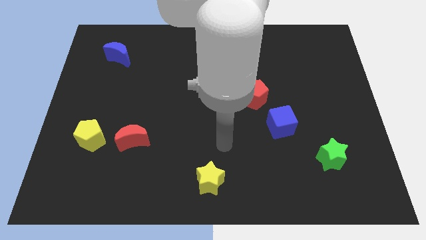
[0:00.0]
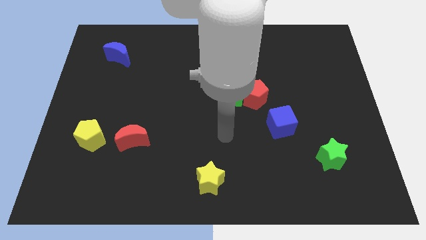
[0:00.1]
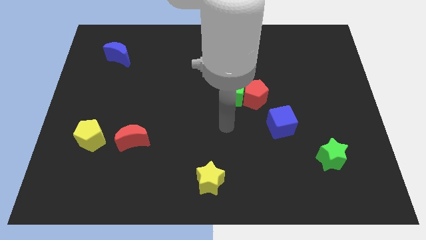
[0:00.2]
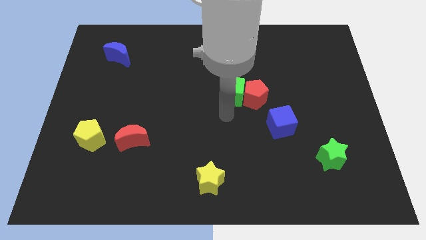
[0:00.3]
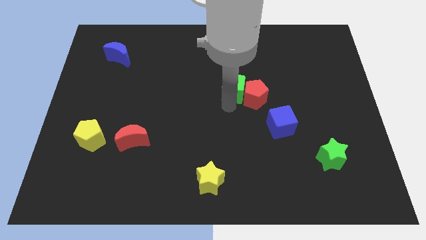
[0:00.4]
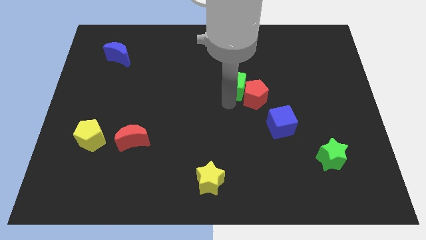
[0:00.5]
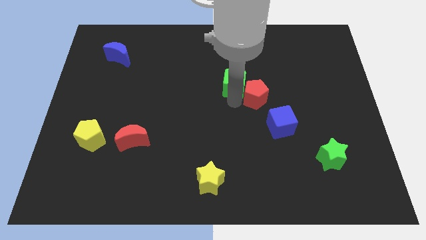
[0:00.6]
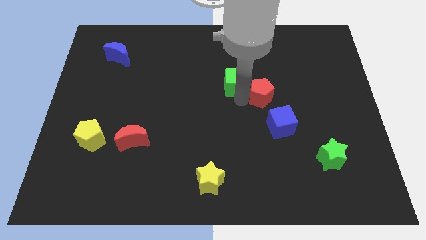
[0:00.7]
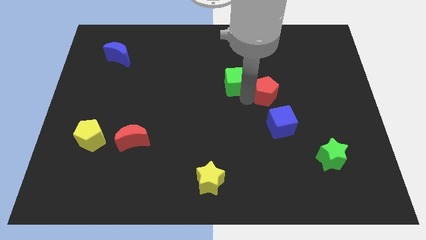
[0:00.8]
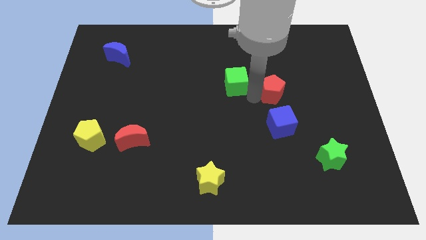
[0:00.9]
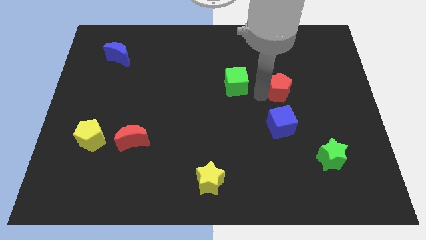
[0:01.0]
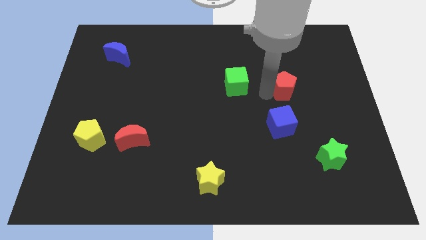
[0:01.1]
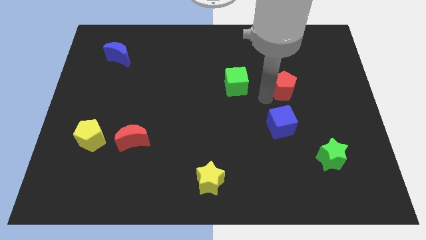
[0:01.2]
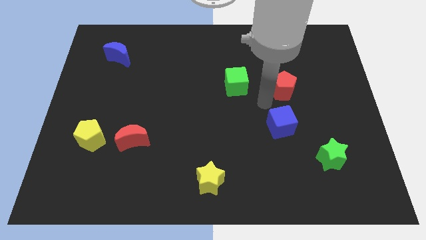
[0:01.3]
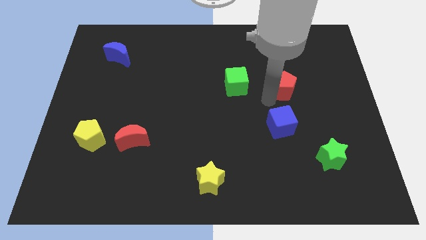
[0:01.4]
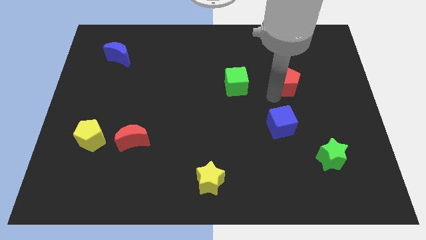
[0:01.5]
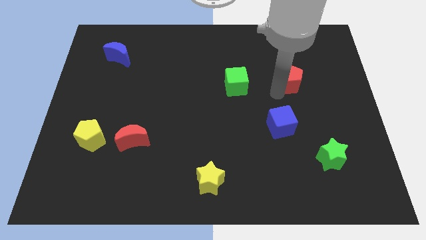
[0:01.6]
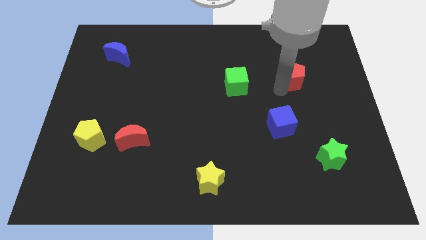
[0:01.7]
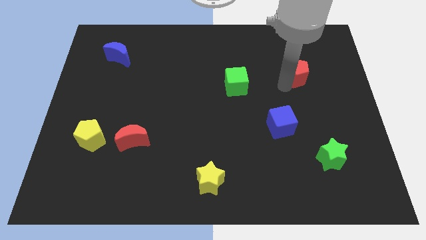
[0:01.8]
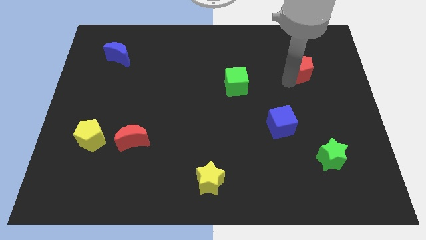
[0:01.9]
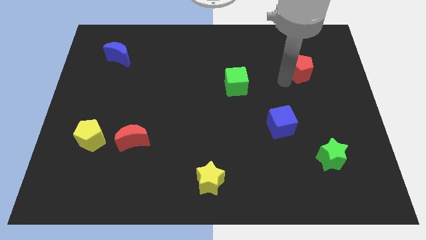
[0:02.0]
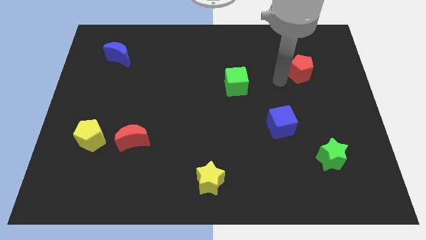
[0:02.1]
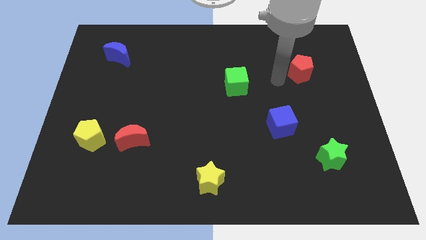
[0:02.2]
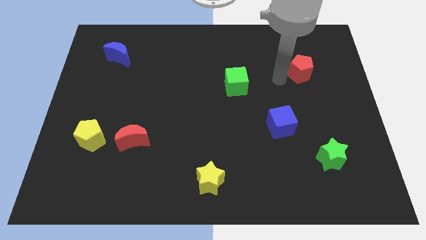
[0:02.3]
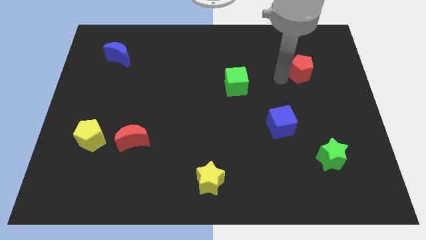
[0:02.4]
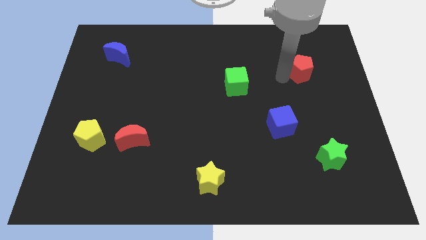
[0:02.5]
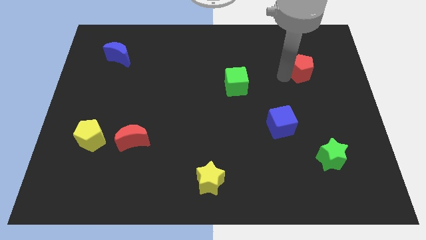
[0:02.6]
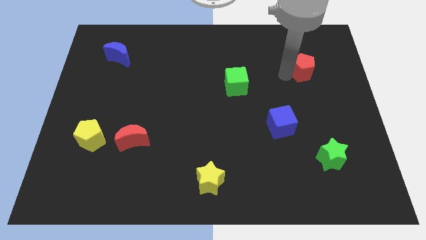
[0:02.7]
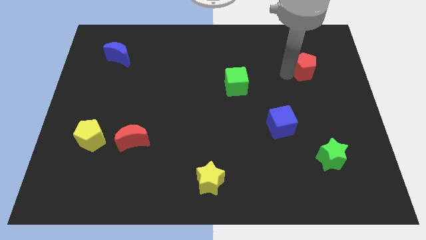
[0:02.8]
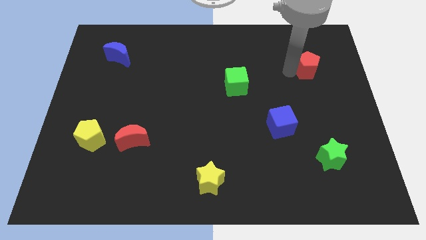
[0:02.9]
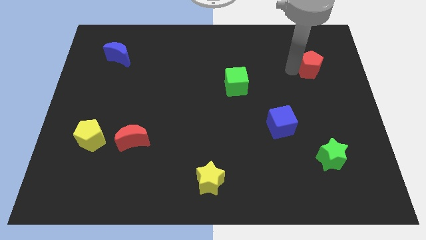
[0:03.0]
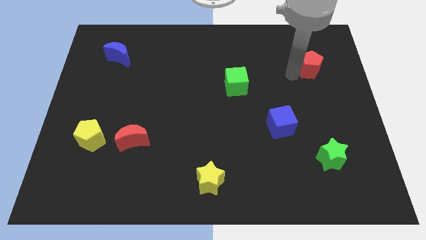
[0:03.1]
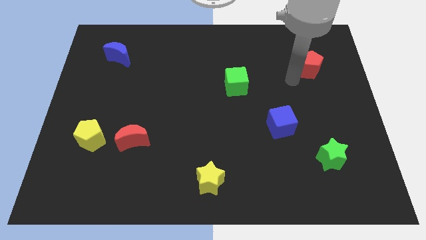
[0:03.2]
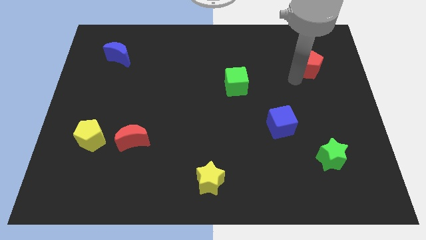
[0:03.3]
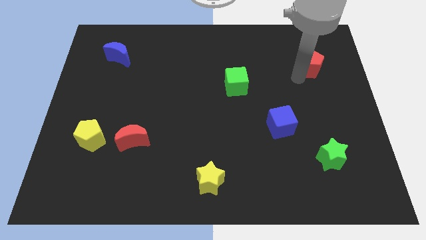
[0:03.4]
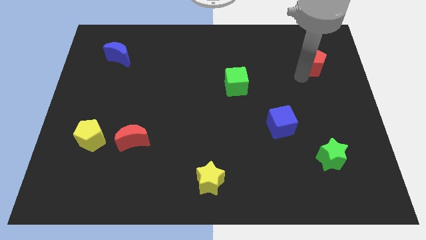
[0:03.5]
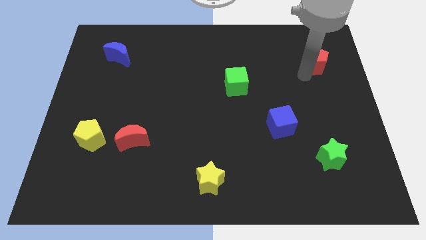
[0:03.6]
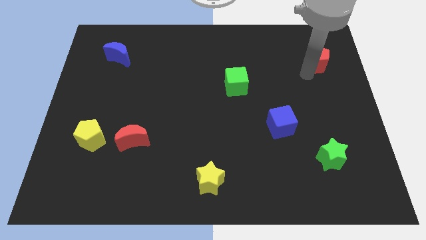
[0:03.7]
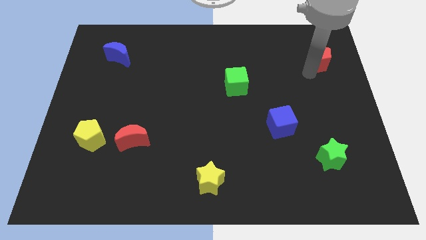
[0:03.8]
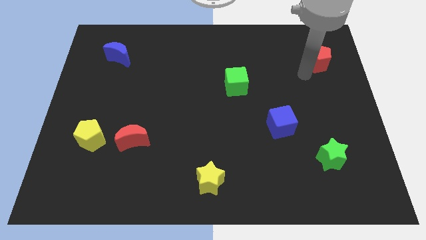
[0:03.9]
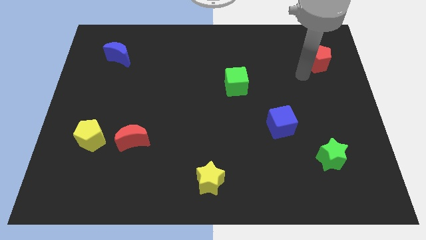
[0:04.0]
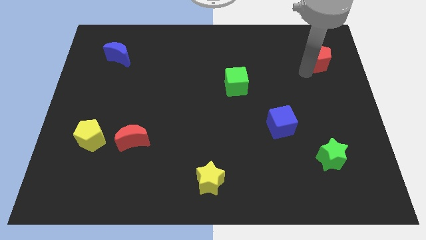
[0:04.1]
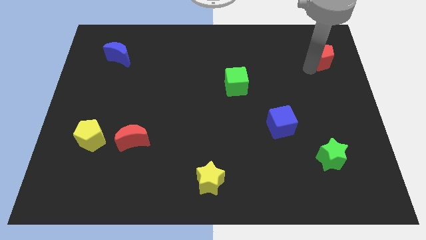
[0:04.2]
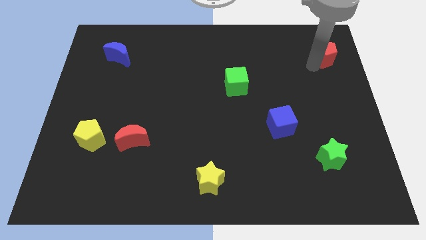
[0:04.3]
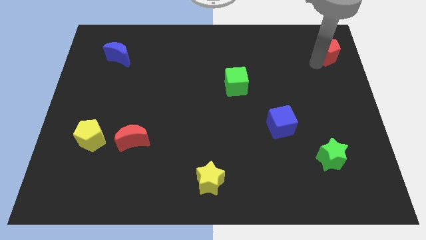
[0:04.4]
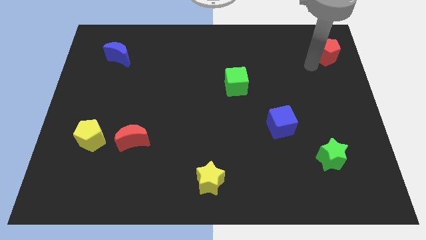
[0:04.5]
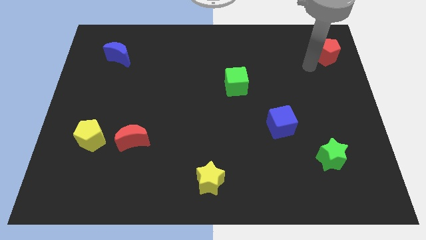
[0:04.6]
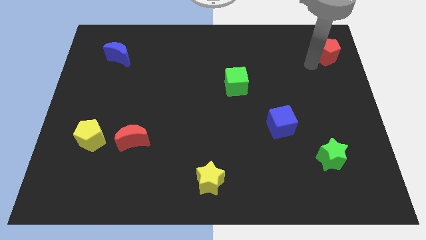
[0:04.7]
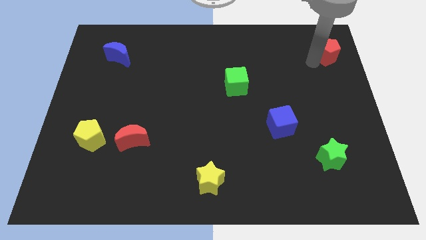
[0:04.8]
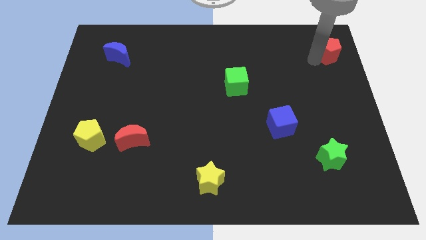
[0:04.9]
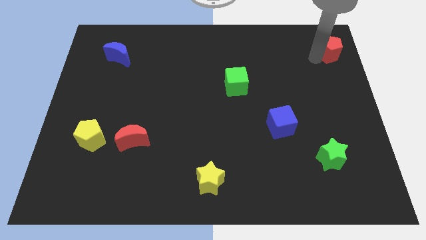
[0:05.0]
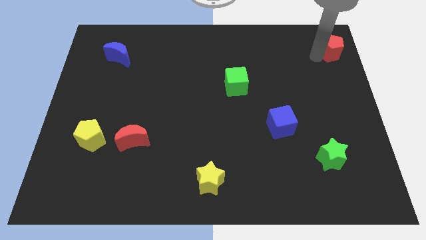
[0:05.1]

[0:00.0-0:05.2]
push the red pentagon to the upper right corner

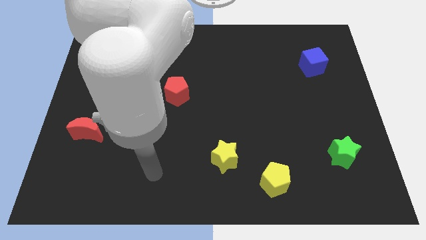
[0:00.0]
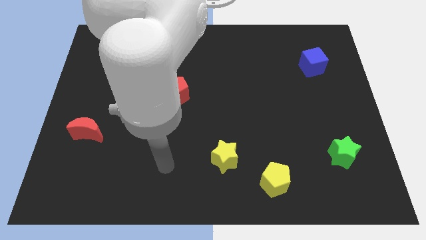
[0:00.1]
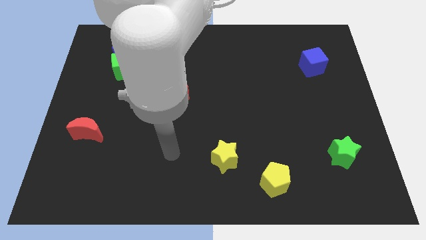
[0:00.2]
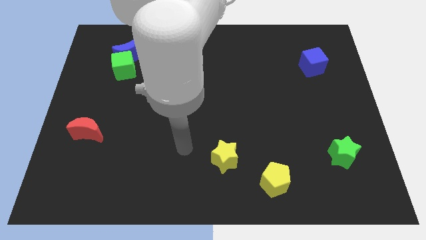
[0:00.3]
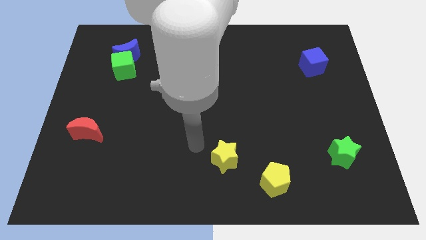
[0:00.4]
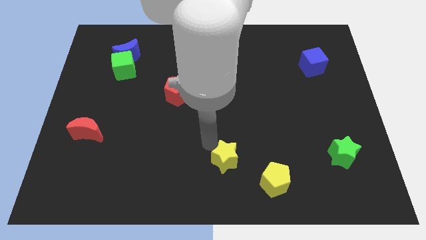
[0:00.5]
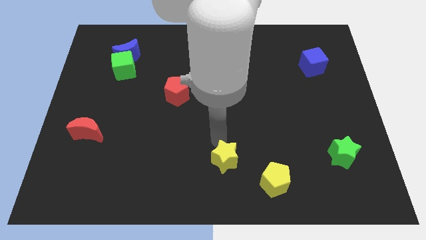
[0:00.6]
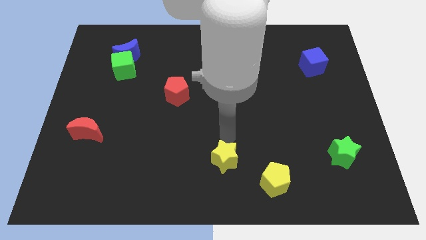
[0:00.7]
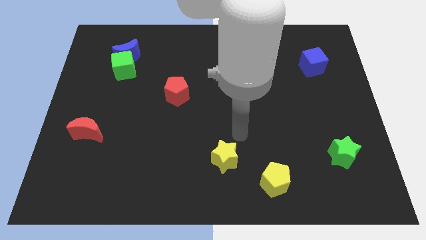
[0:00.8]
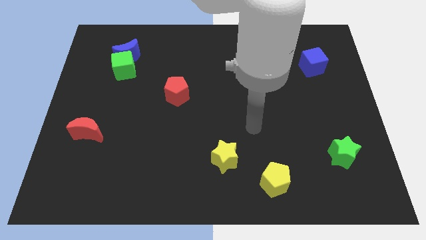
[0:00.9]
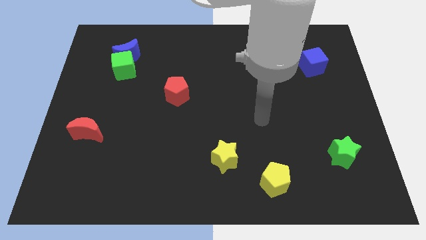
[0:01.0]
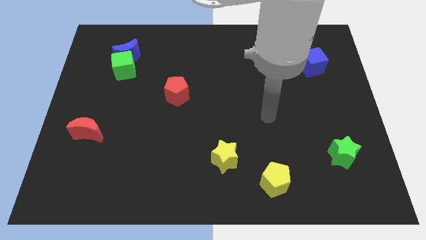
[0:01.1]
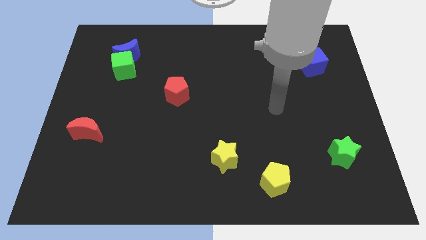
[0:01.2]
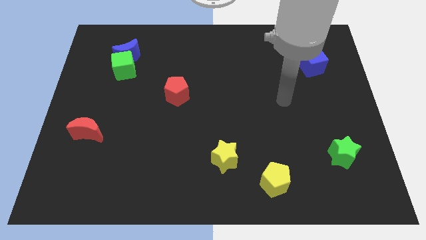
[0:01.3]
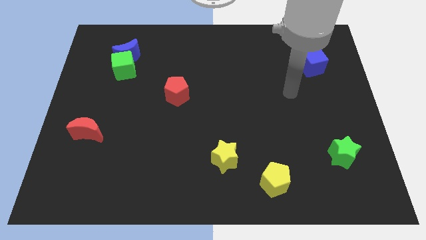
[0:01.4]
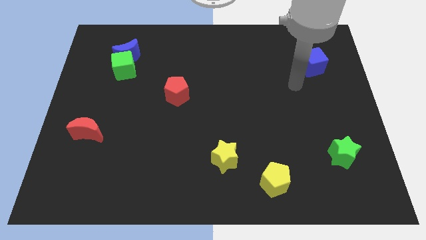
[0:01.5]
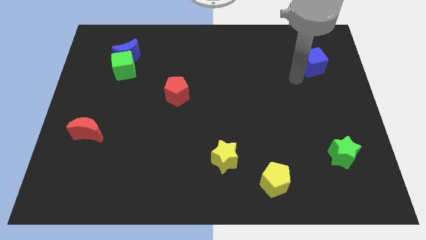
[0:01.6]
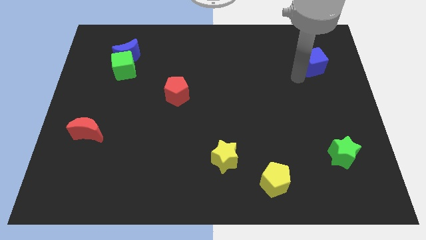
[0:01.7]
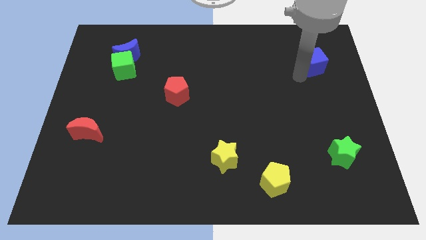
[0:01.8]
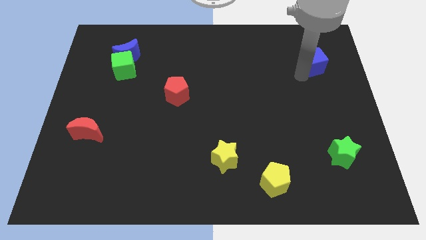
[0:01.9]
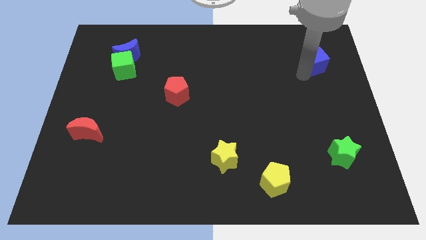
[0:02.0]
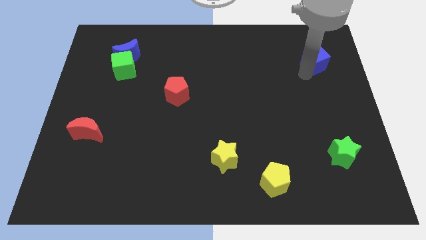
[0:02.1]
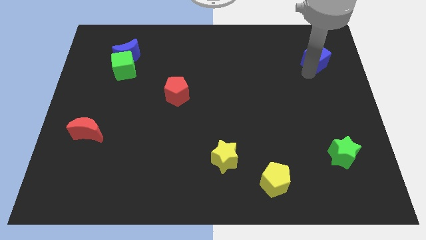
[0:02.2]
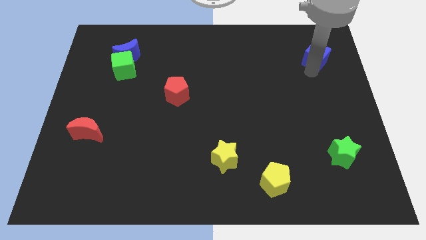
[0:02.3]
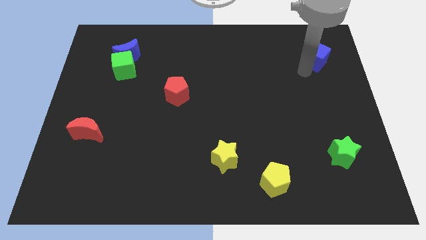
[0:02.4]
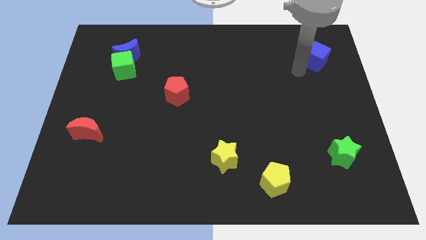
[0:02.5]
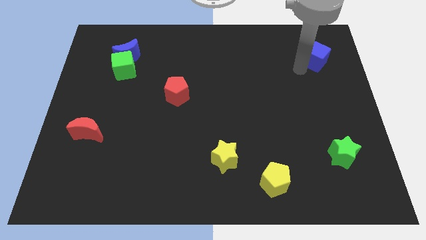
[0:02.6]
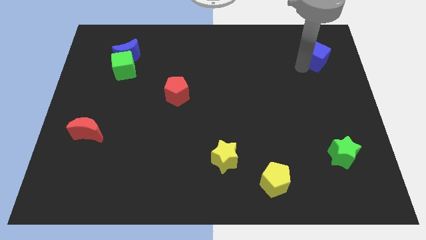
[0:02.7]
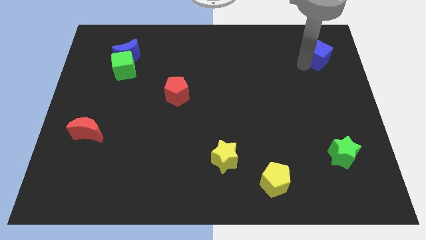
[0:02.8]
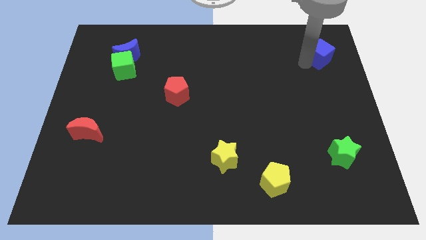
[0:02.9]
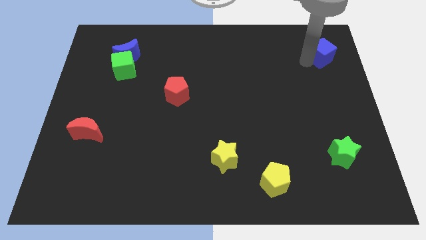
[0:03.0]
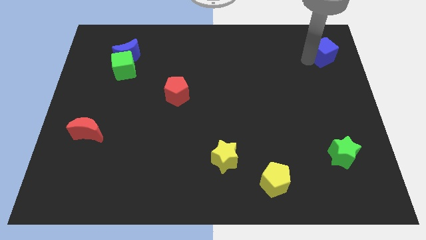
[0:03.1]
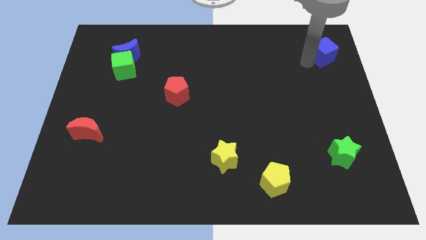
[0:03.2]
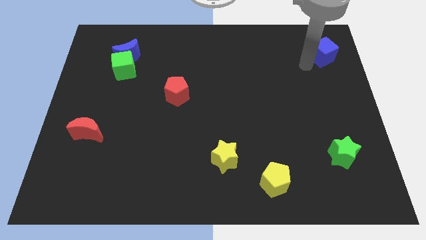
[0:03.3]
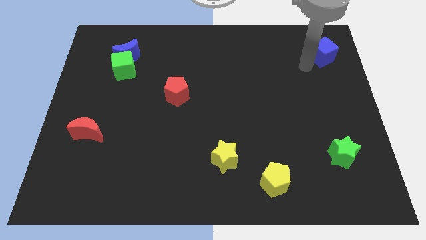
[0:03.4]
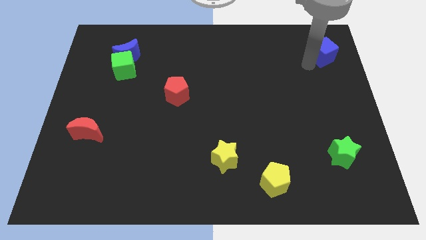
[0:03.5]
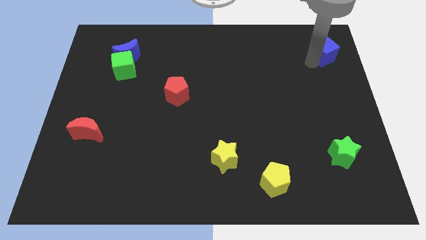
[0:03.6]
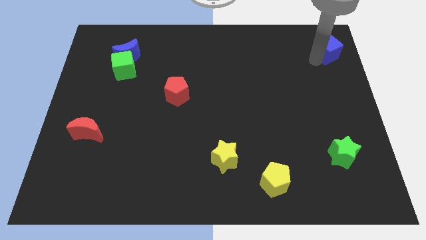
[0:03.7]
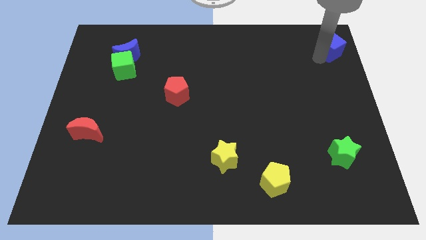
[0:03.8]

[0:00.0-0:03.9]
slide the blue cube to the top right corner
